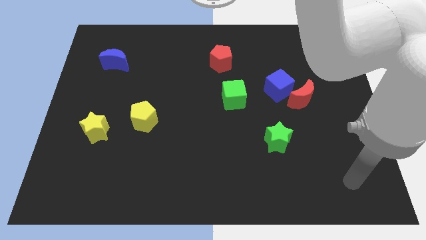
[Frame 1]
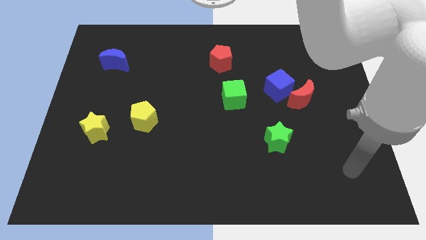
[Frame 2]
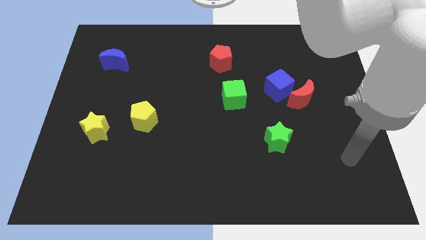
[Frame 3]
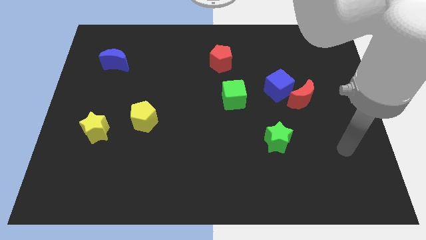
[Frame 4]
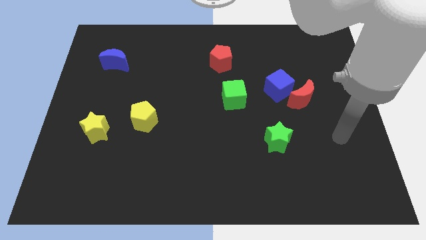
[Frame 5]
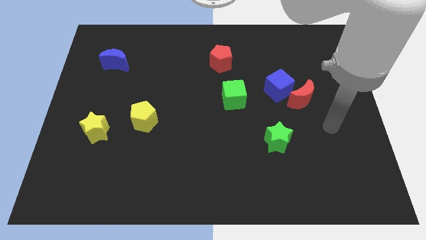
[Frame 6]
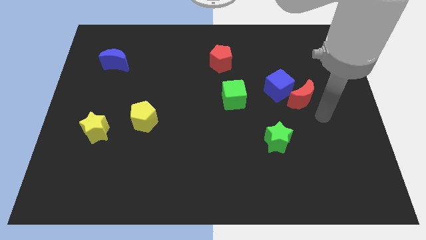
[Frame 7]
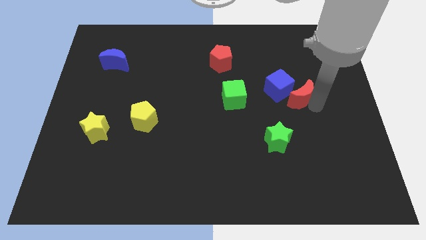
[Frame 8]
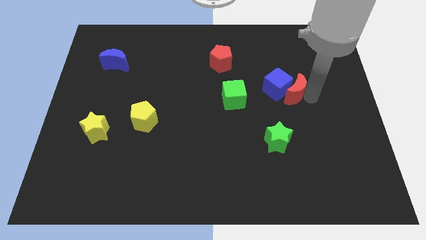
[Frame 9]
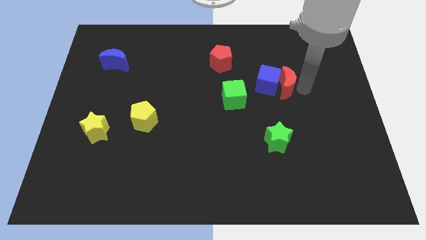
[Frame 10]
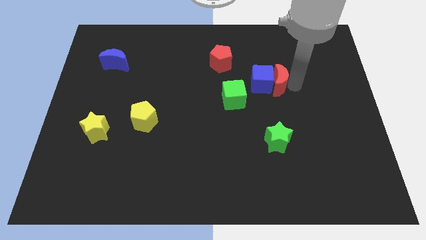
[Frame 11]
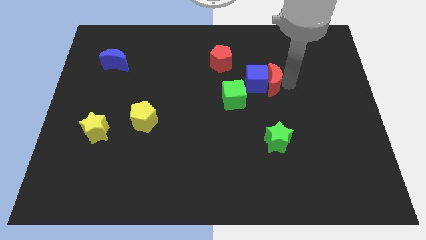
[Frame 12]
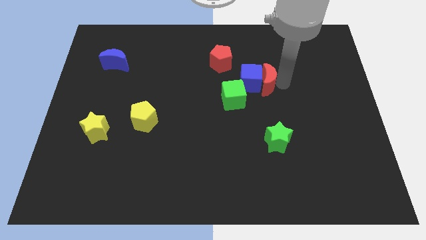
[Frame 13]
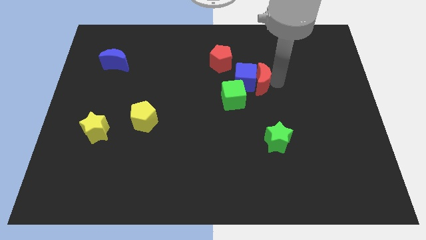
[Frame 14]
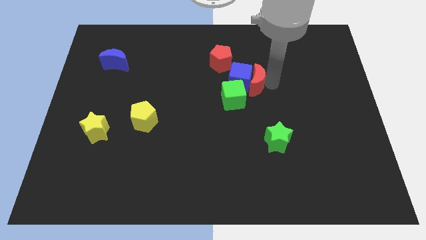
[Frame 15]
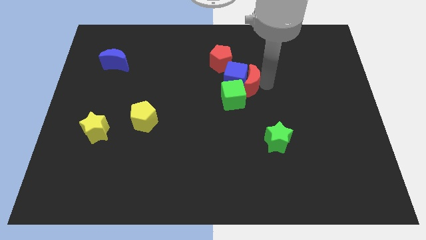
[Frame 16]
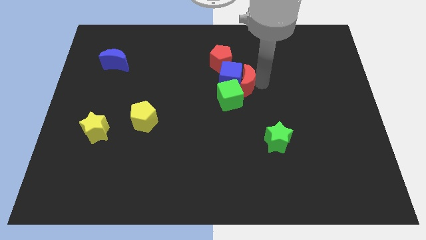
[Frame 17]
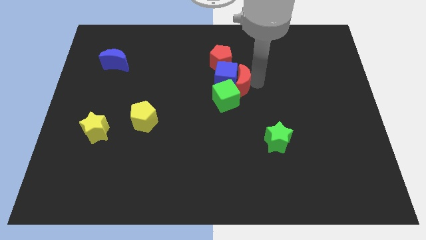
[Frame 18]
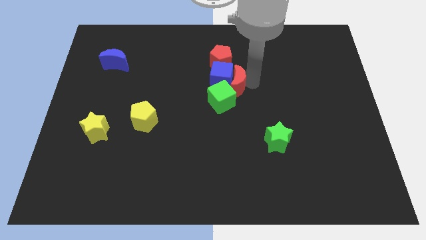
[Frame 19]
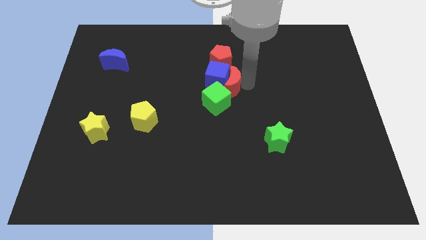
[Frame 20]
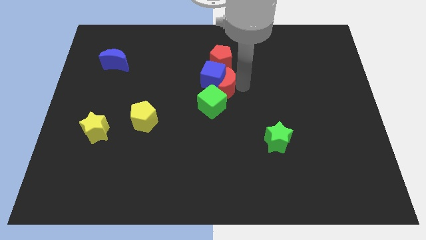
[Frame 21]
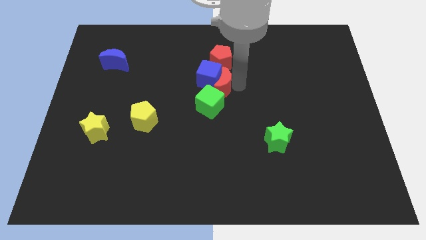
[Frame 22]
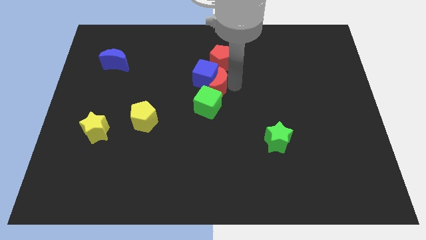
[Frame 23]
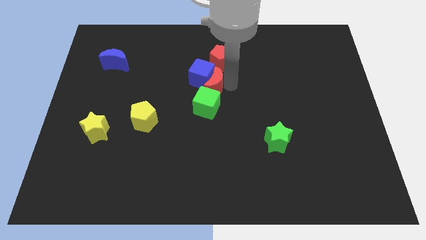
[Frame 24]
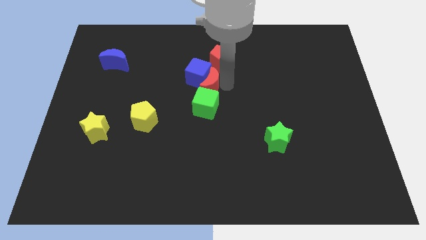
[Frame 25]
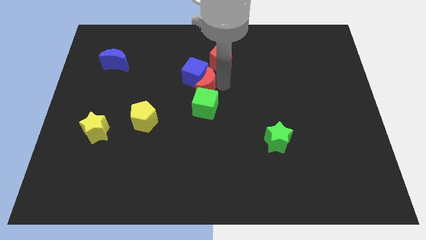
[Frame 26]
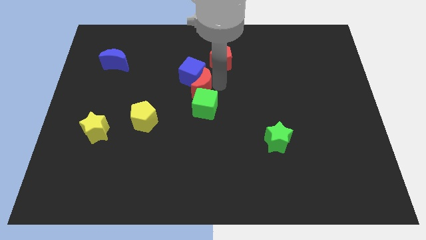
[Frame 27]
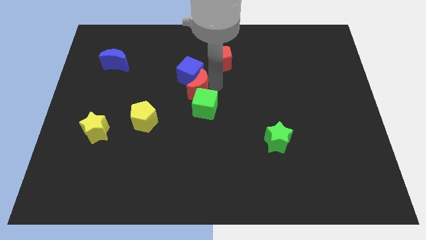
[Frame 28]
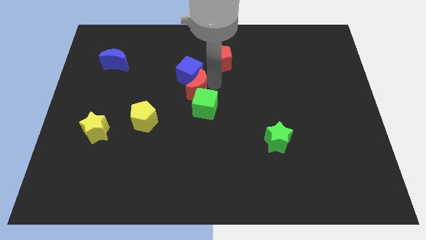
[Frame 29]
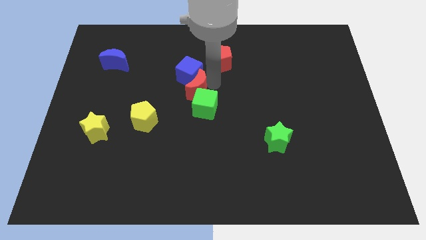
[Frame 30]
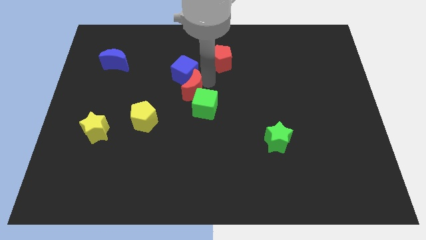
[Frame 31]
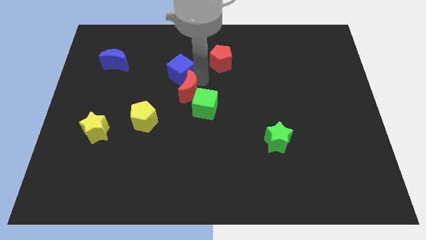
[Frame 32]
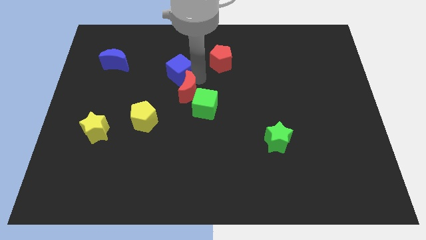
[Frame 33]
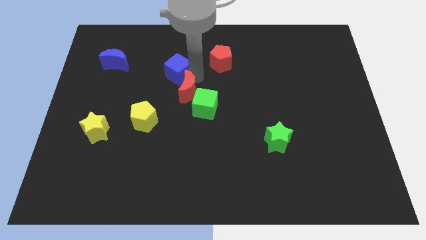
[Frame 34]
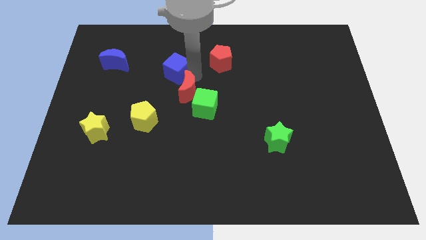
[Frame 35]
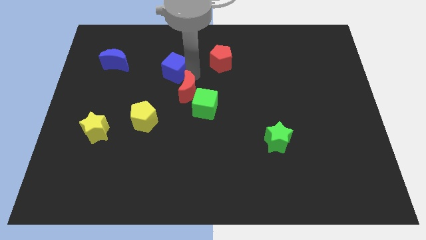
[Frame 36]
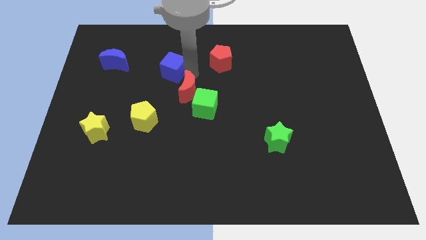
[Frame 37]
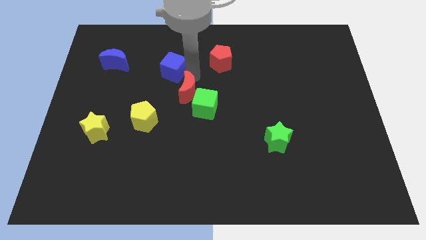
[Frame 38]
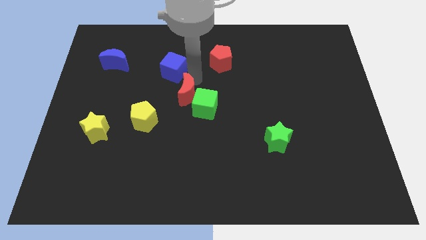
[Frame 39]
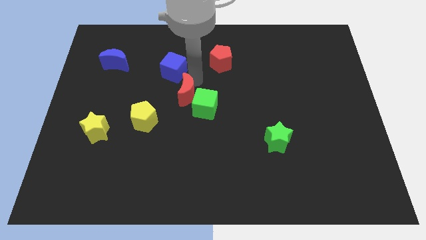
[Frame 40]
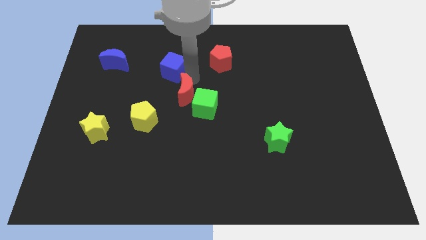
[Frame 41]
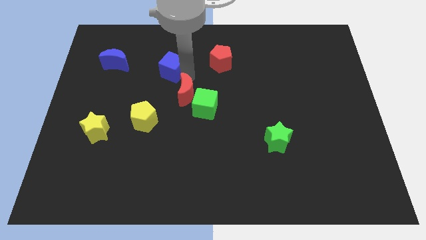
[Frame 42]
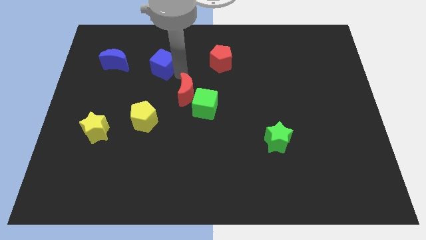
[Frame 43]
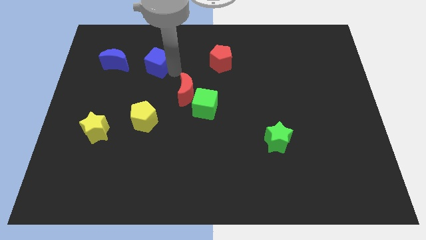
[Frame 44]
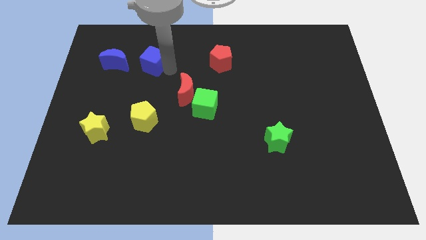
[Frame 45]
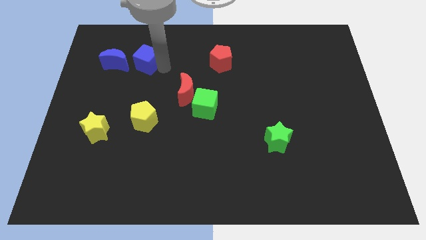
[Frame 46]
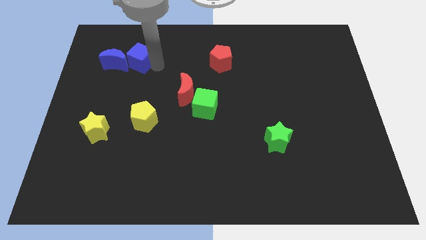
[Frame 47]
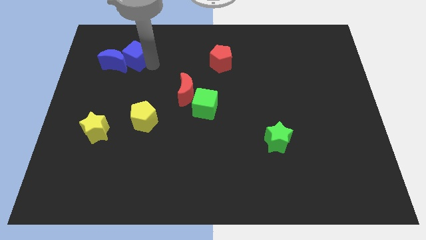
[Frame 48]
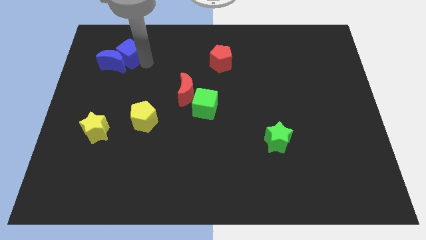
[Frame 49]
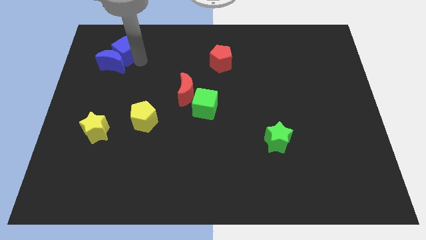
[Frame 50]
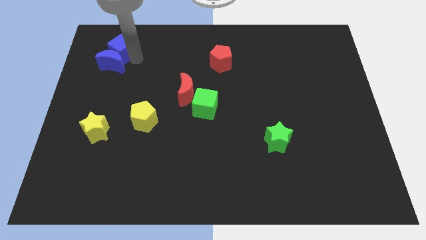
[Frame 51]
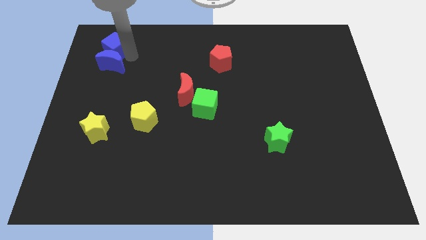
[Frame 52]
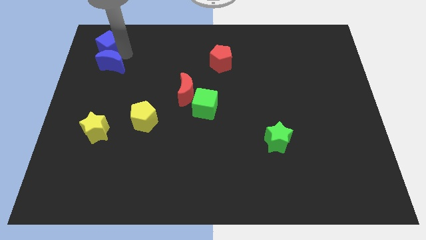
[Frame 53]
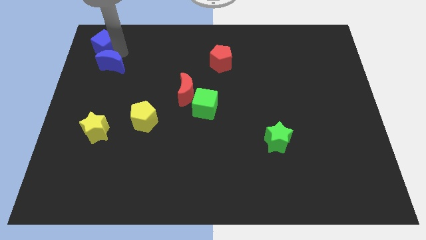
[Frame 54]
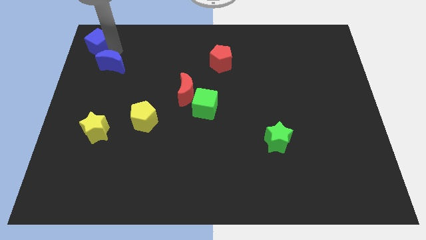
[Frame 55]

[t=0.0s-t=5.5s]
put the blue cube to the upper left corner

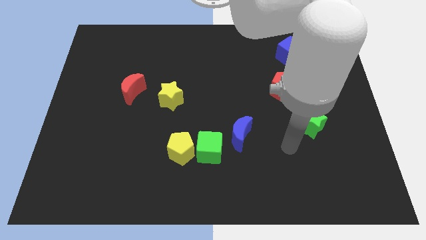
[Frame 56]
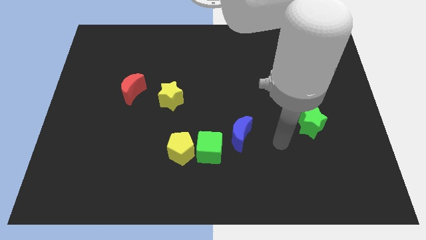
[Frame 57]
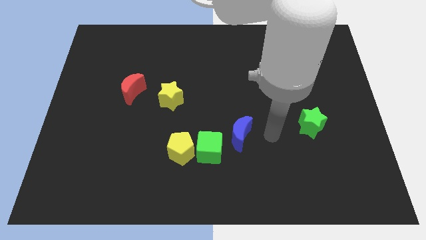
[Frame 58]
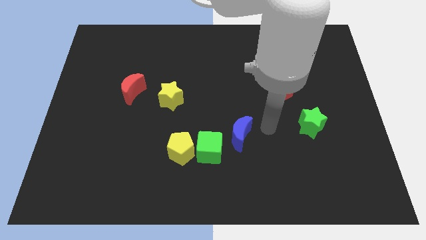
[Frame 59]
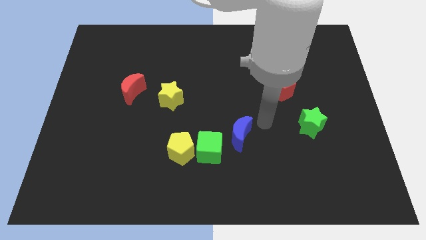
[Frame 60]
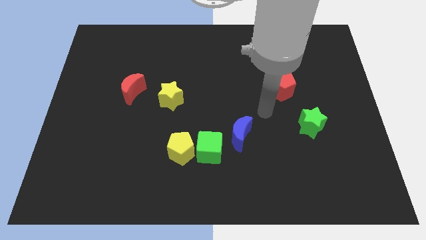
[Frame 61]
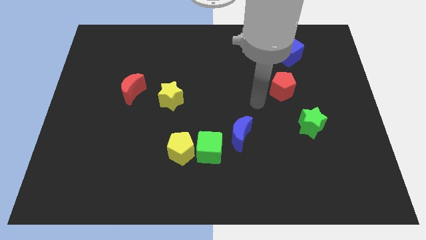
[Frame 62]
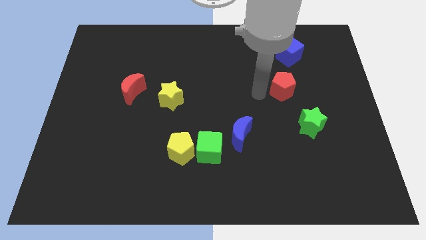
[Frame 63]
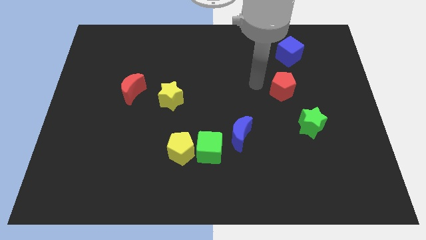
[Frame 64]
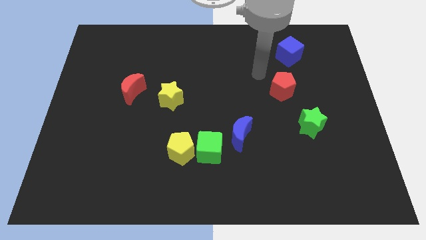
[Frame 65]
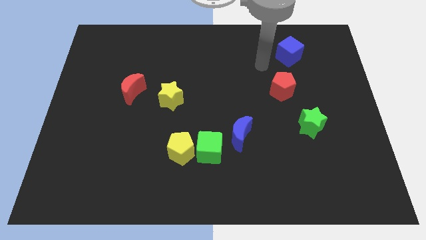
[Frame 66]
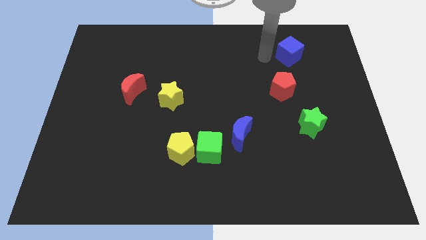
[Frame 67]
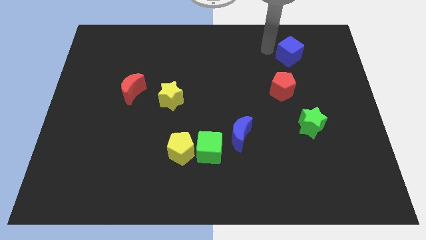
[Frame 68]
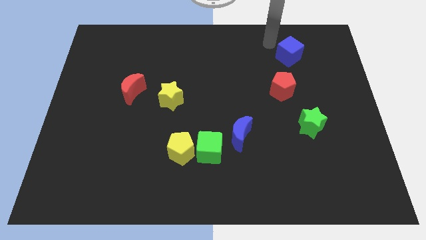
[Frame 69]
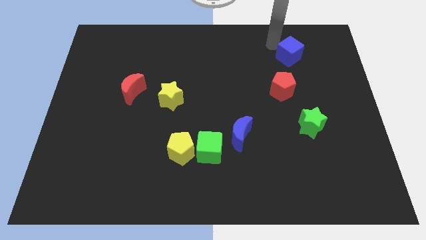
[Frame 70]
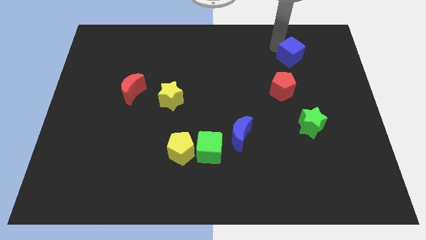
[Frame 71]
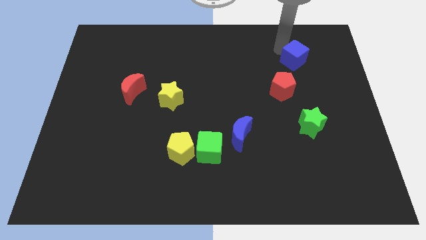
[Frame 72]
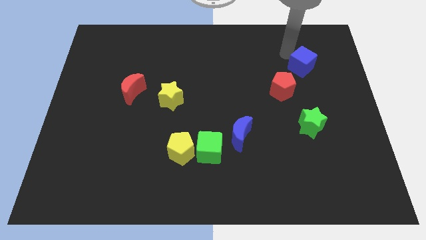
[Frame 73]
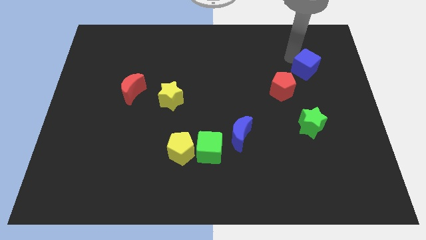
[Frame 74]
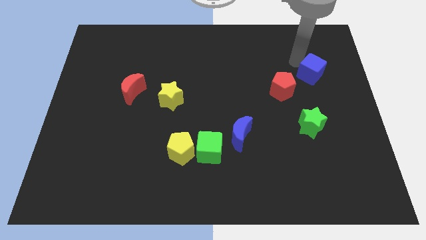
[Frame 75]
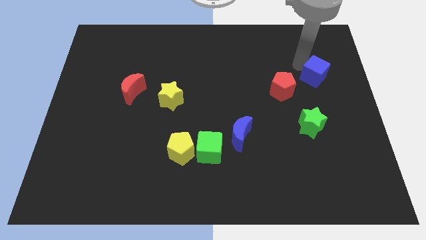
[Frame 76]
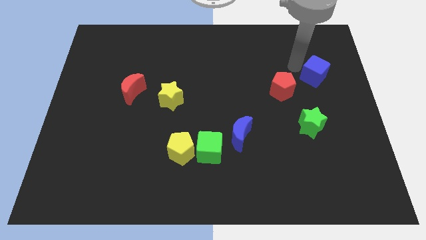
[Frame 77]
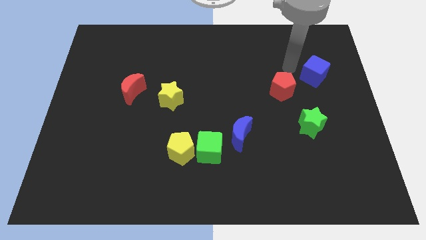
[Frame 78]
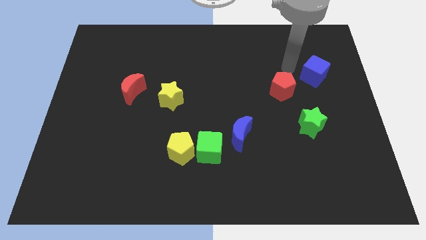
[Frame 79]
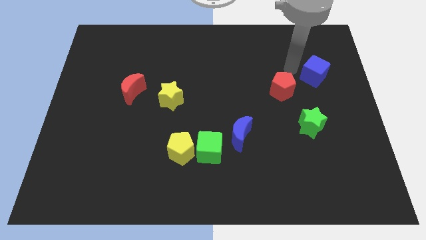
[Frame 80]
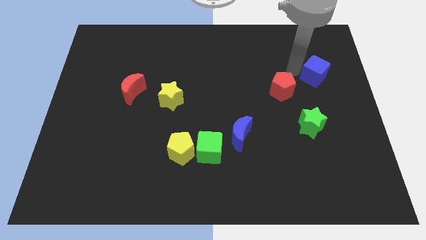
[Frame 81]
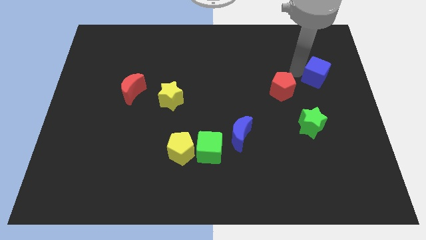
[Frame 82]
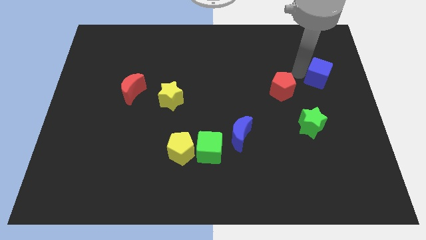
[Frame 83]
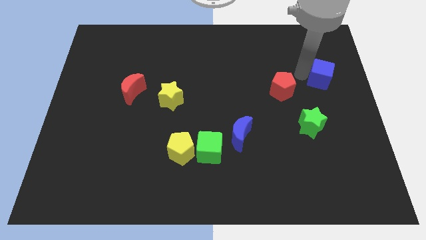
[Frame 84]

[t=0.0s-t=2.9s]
put the blue cube to the right side of the board
